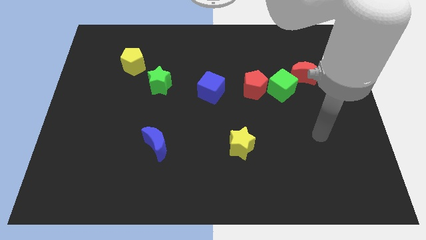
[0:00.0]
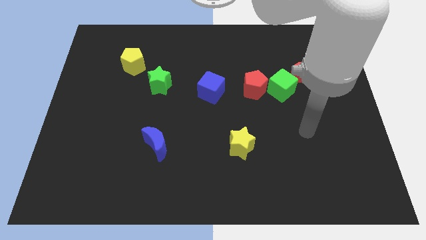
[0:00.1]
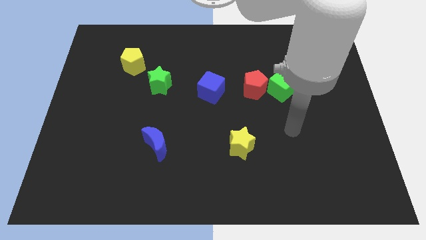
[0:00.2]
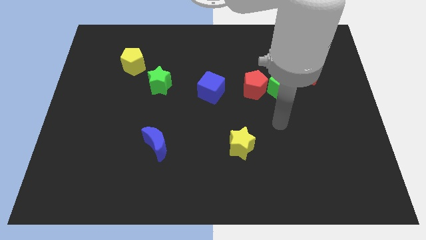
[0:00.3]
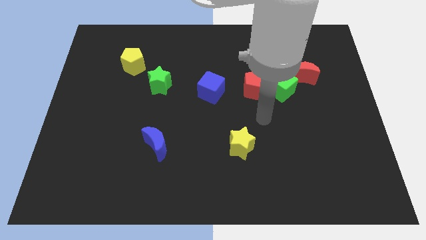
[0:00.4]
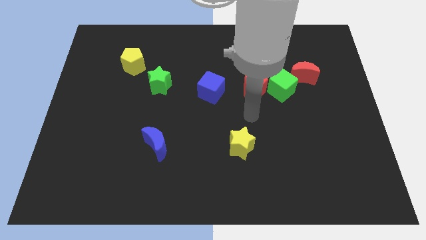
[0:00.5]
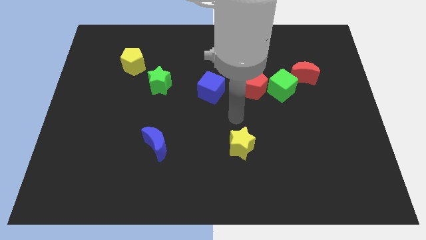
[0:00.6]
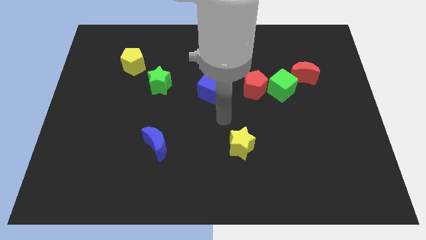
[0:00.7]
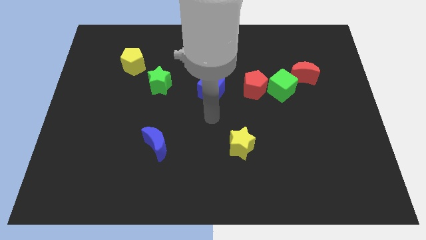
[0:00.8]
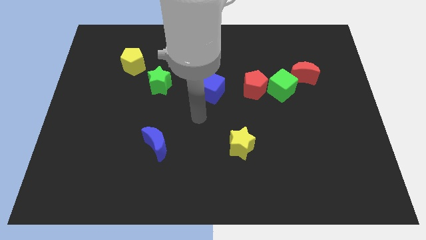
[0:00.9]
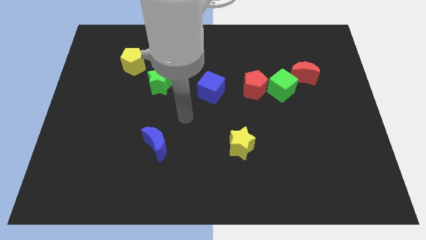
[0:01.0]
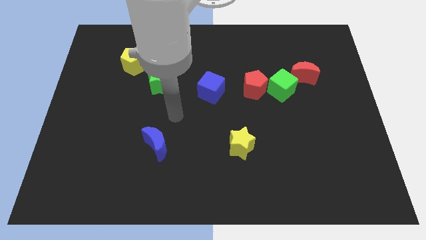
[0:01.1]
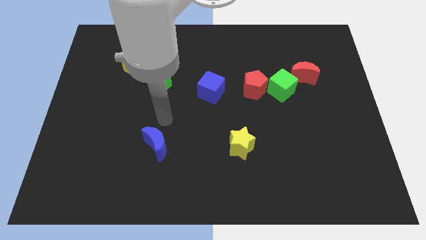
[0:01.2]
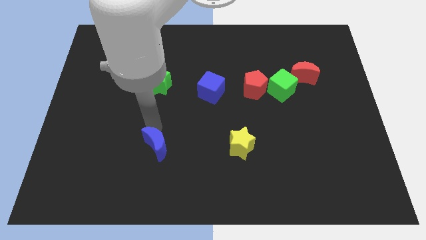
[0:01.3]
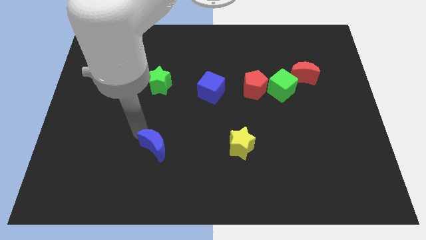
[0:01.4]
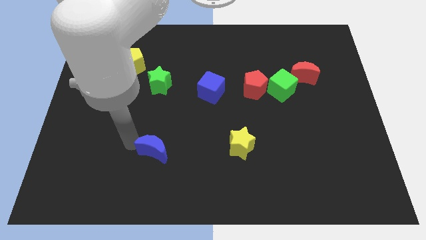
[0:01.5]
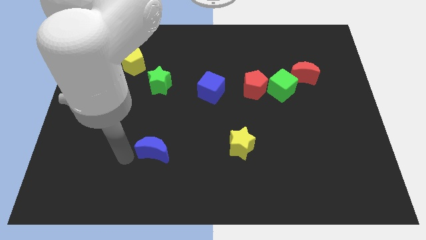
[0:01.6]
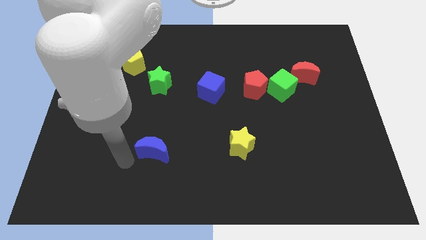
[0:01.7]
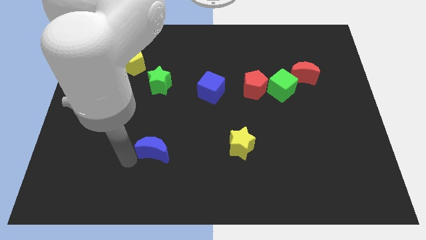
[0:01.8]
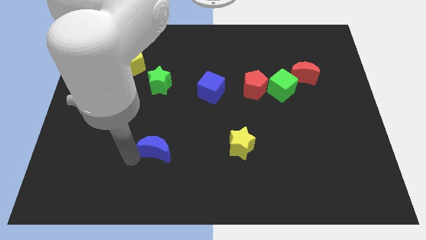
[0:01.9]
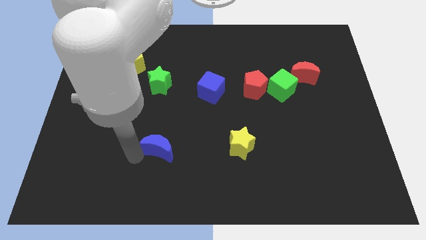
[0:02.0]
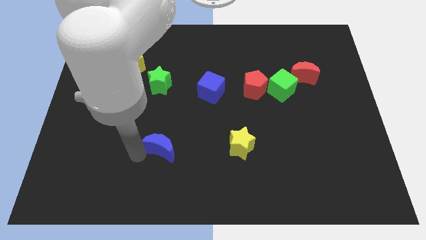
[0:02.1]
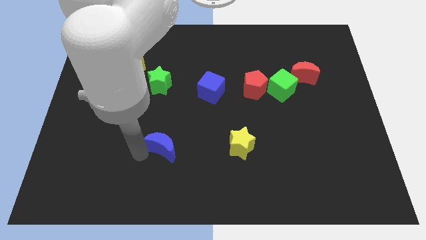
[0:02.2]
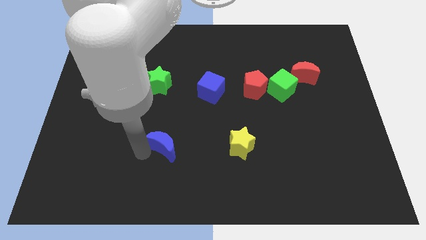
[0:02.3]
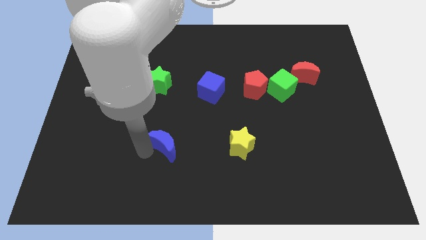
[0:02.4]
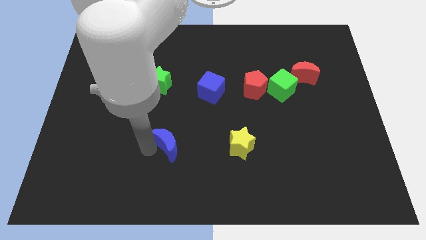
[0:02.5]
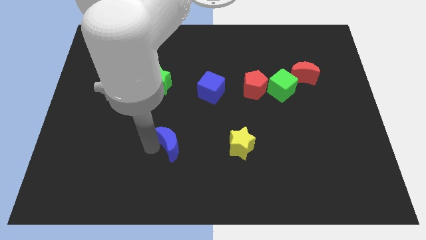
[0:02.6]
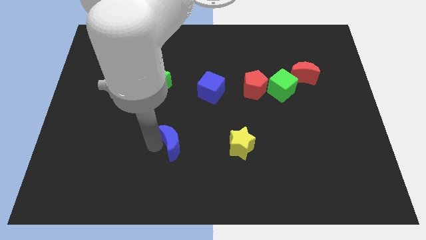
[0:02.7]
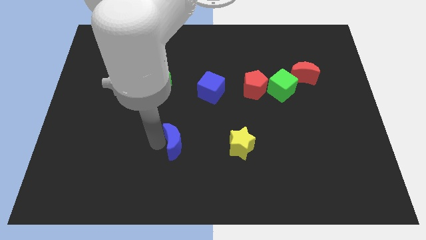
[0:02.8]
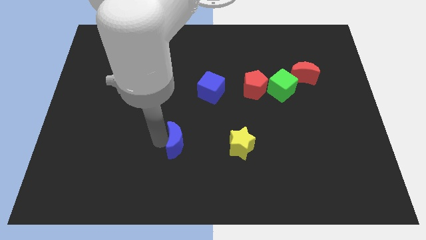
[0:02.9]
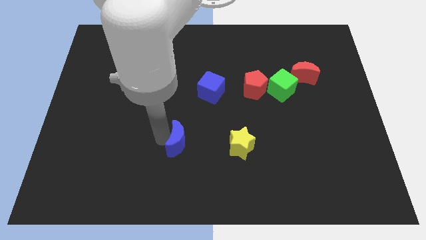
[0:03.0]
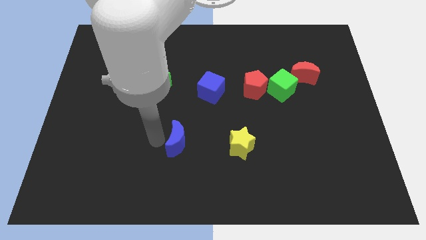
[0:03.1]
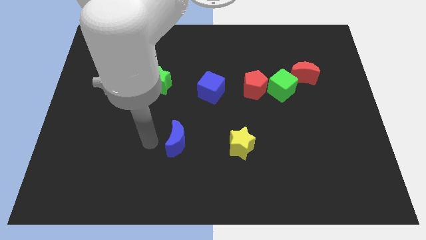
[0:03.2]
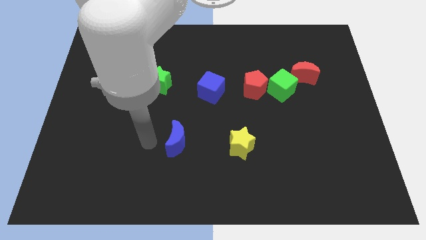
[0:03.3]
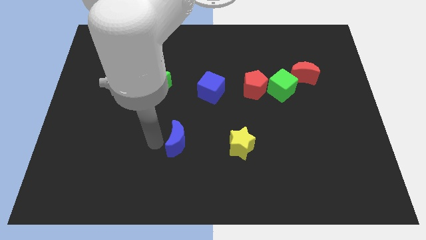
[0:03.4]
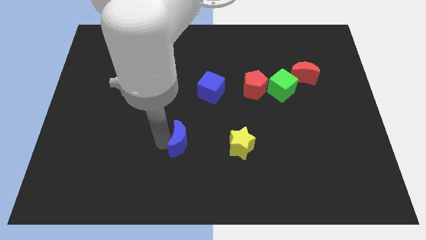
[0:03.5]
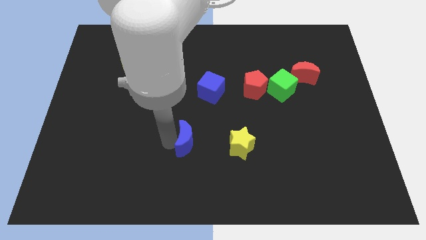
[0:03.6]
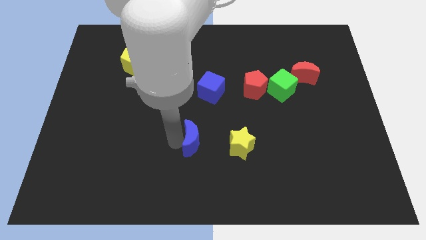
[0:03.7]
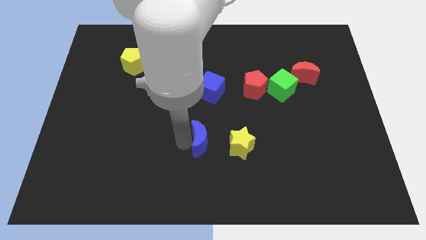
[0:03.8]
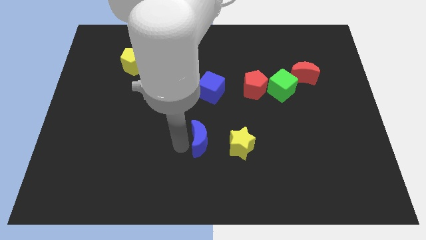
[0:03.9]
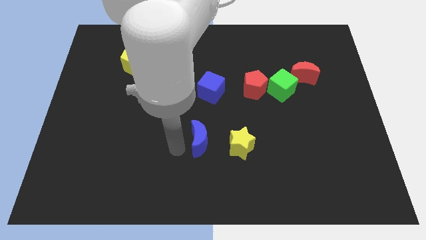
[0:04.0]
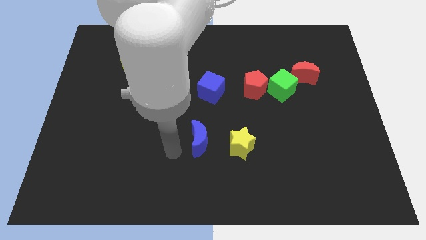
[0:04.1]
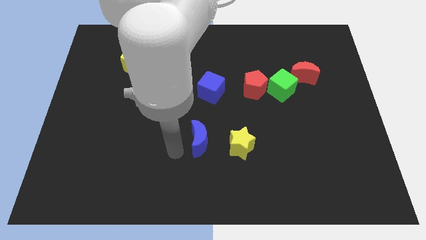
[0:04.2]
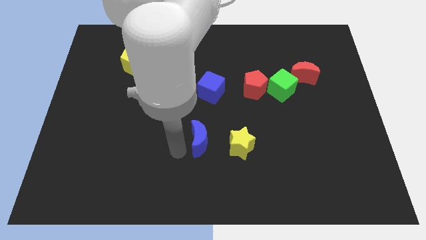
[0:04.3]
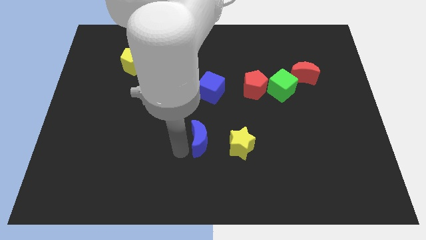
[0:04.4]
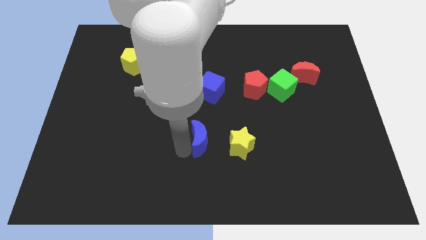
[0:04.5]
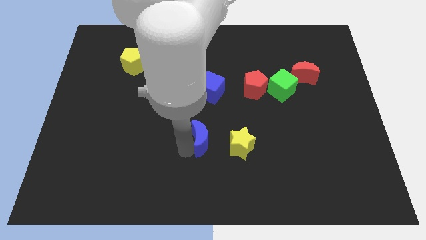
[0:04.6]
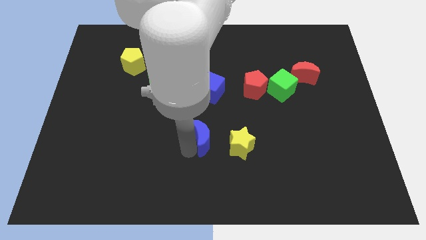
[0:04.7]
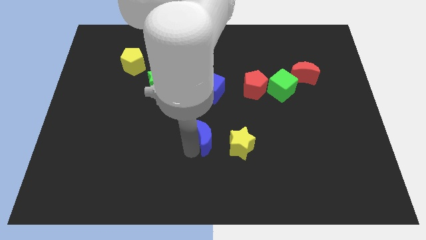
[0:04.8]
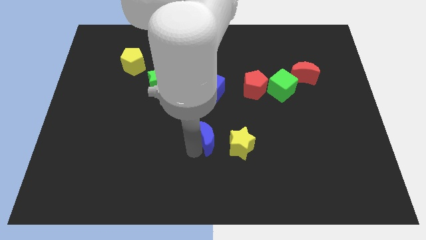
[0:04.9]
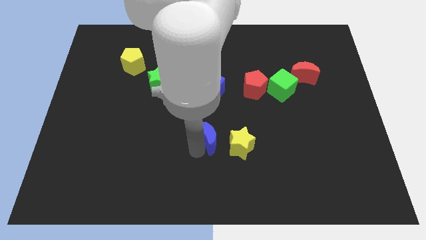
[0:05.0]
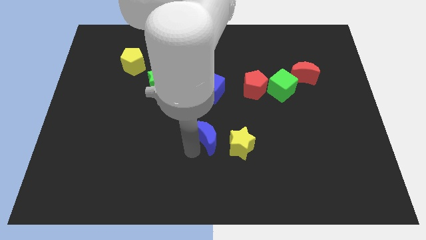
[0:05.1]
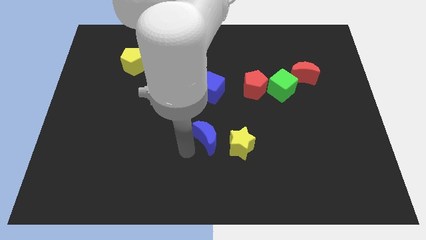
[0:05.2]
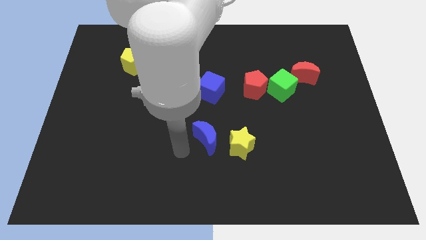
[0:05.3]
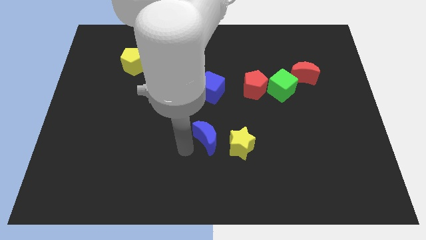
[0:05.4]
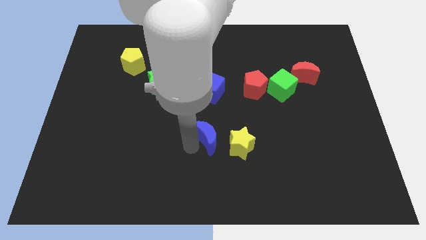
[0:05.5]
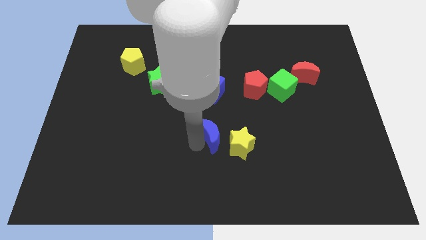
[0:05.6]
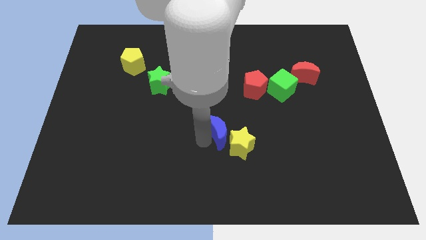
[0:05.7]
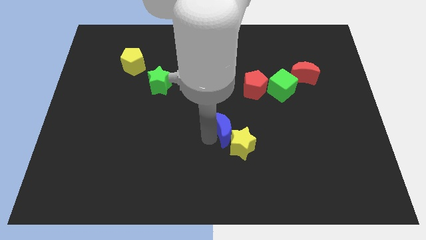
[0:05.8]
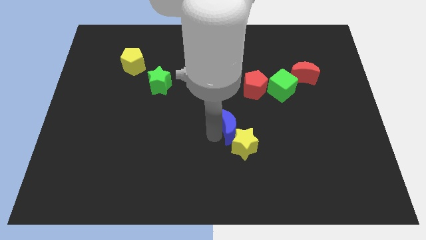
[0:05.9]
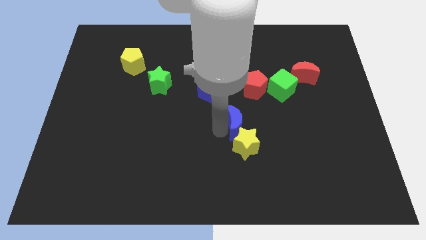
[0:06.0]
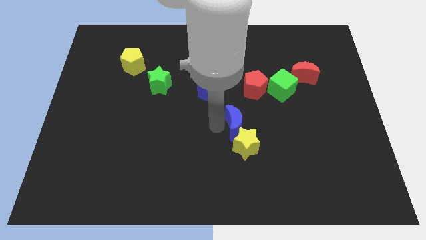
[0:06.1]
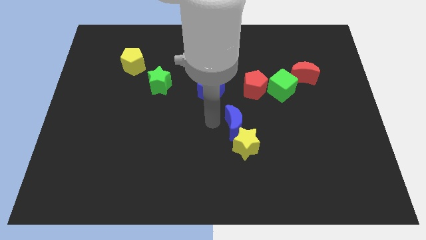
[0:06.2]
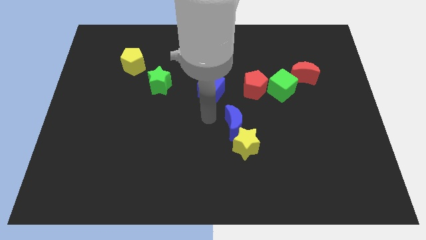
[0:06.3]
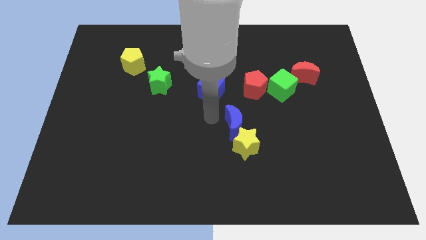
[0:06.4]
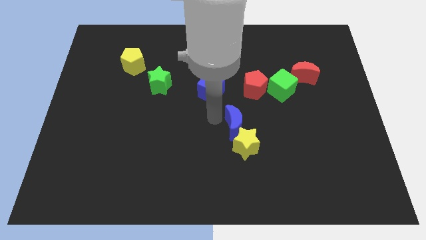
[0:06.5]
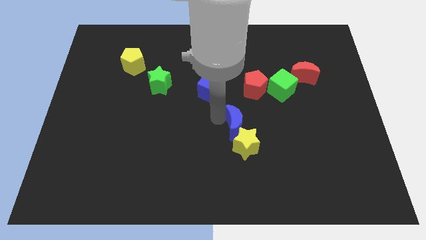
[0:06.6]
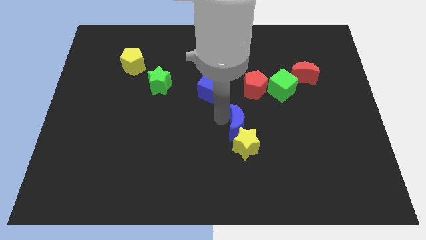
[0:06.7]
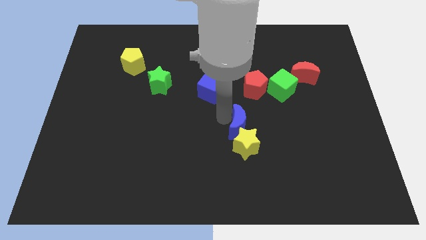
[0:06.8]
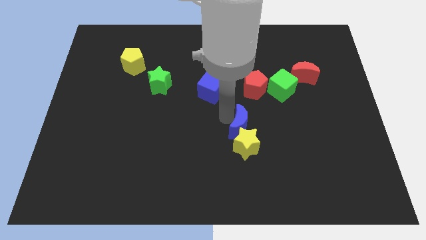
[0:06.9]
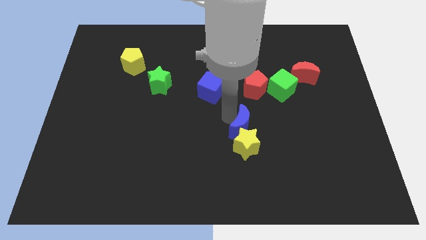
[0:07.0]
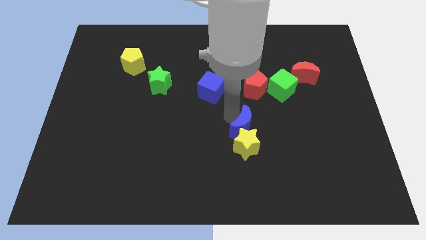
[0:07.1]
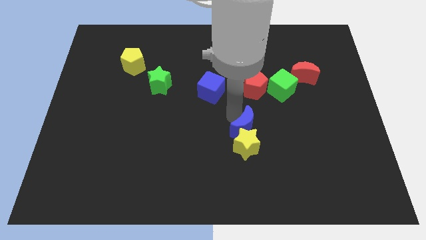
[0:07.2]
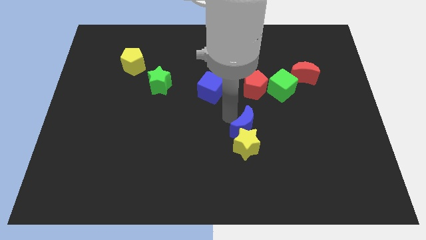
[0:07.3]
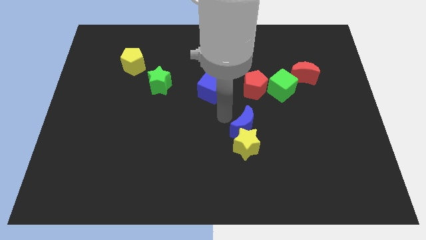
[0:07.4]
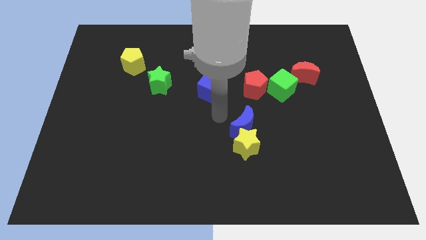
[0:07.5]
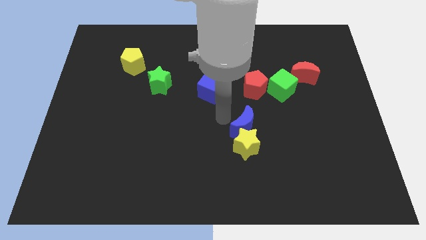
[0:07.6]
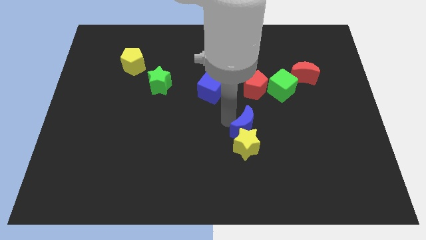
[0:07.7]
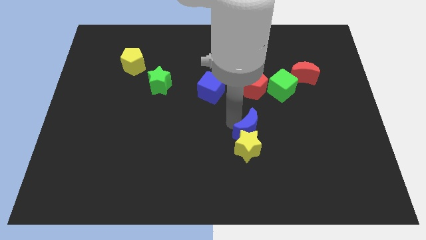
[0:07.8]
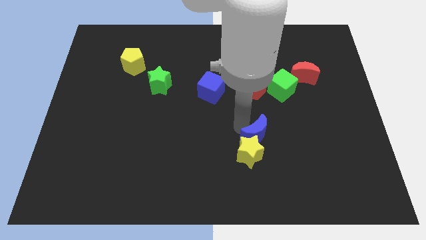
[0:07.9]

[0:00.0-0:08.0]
slide the blue moon to the right
